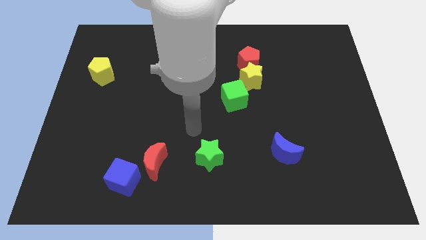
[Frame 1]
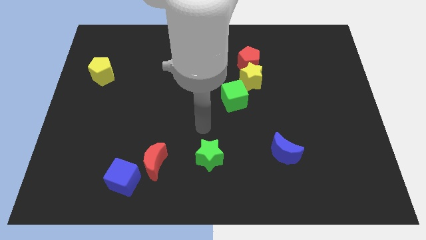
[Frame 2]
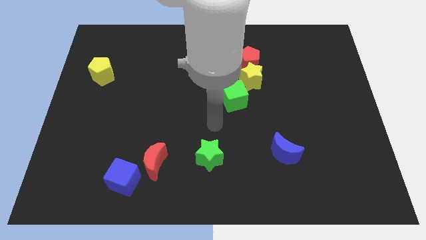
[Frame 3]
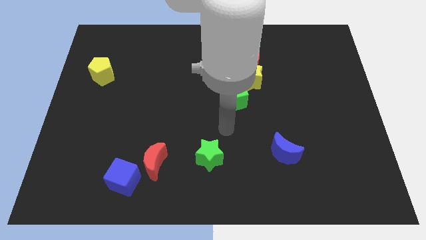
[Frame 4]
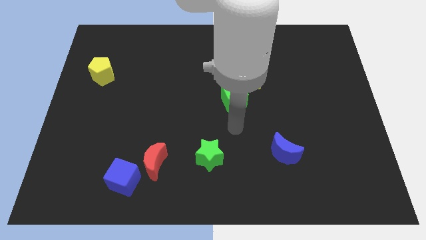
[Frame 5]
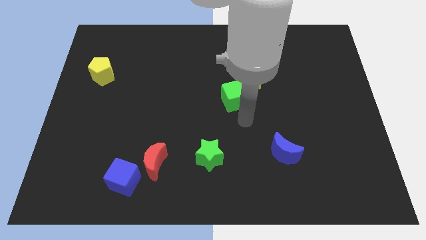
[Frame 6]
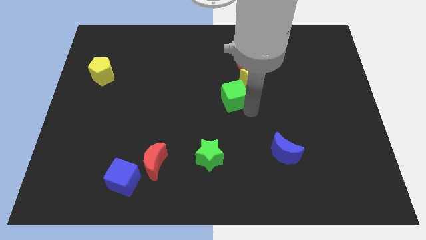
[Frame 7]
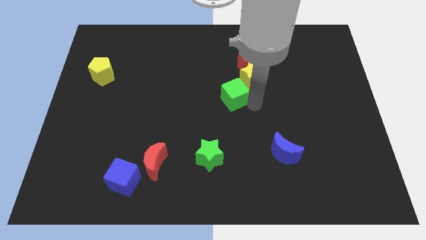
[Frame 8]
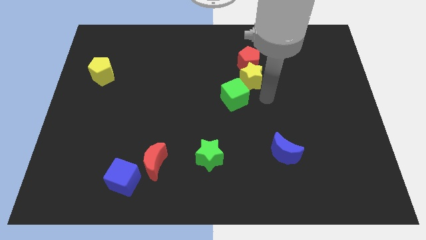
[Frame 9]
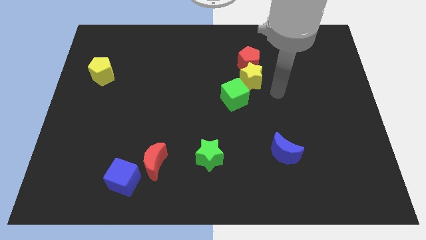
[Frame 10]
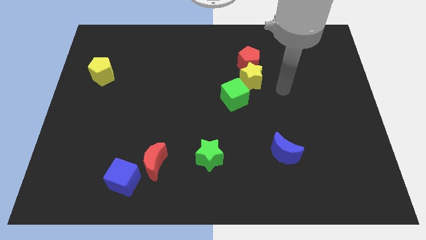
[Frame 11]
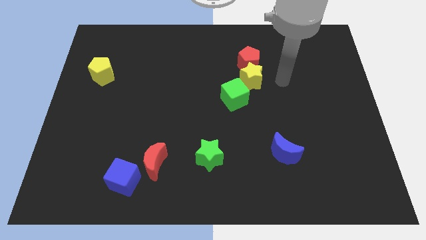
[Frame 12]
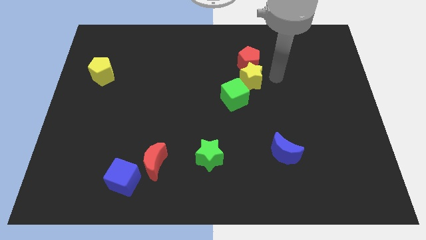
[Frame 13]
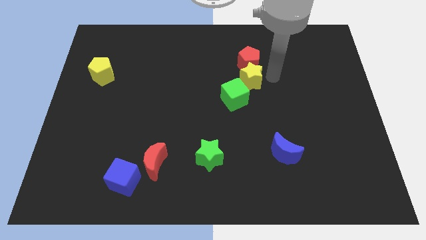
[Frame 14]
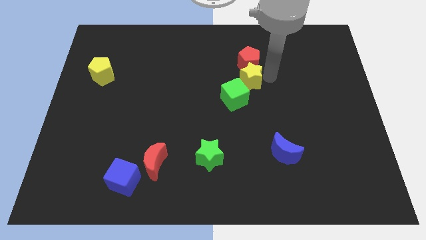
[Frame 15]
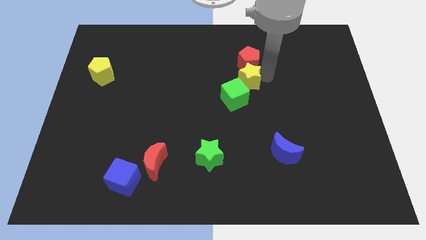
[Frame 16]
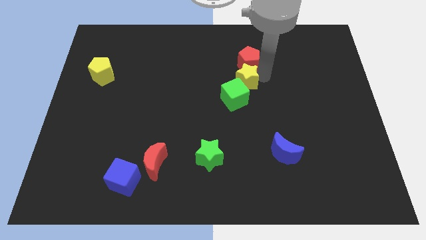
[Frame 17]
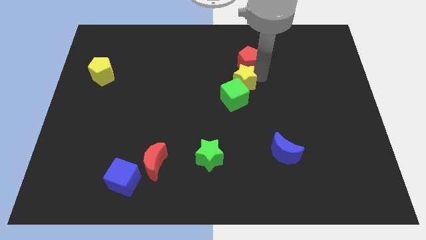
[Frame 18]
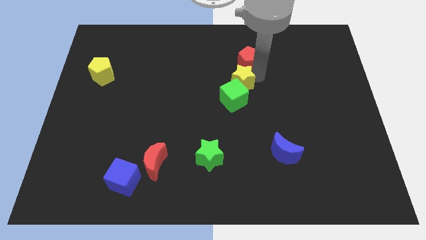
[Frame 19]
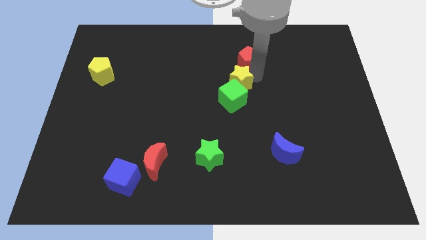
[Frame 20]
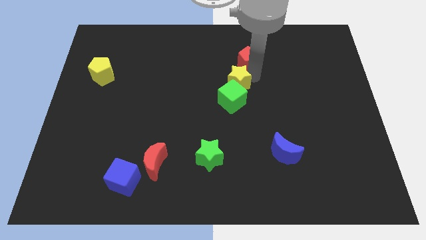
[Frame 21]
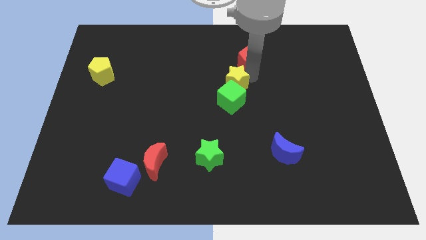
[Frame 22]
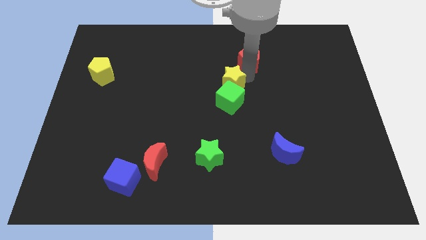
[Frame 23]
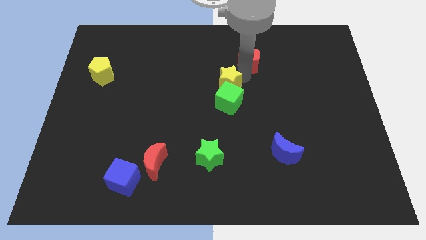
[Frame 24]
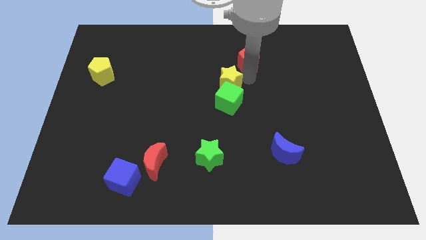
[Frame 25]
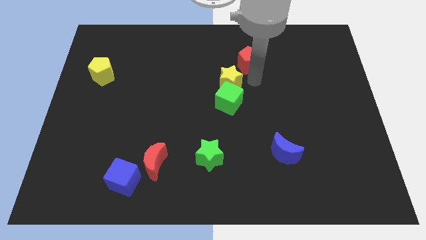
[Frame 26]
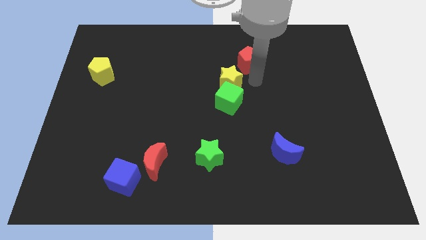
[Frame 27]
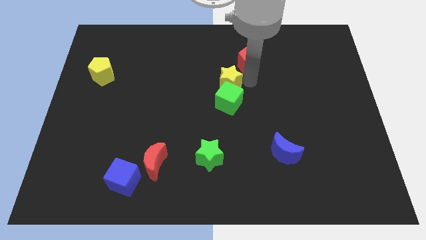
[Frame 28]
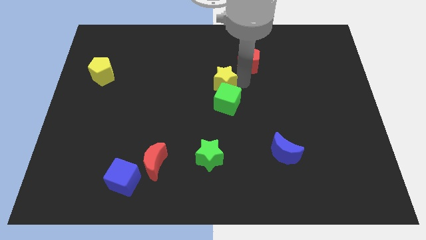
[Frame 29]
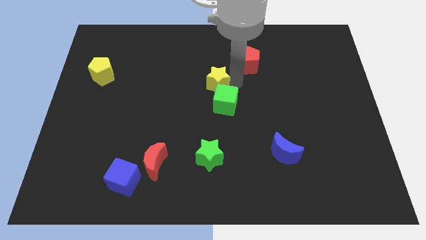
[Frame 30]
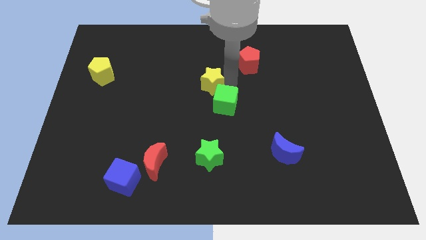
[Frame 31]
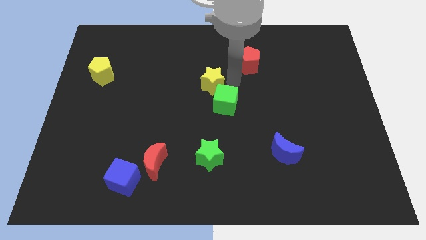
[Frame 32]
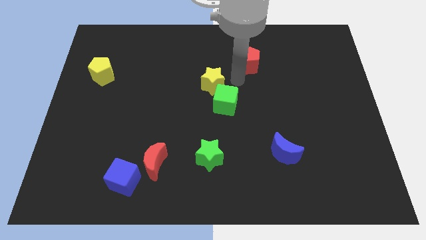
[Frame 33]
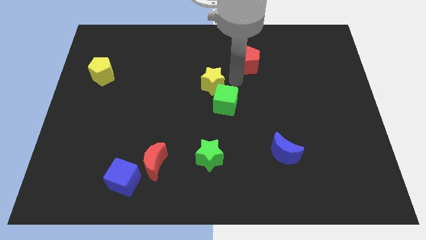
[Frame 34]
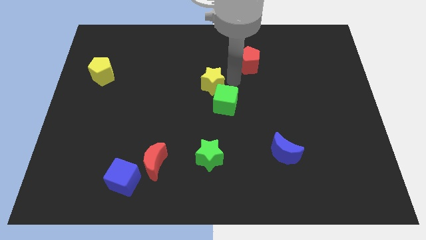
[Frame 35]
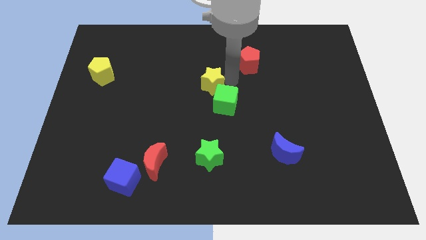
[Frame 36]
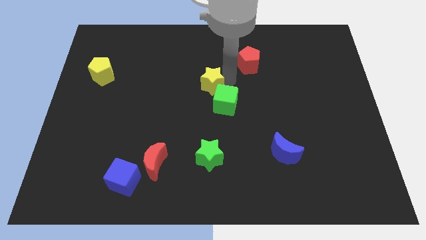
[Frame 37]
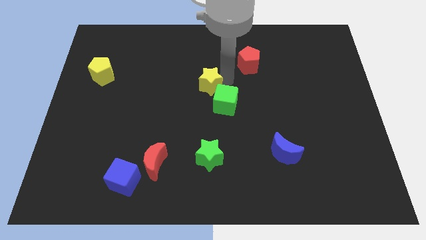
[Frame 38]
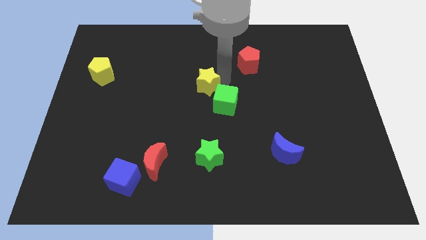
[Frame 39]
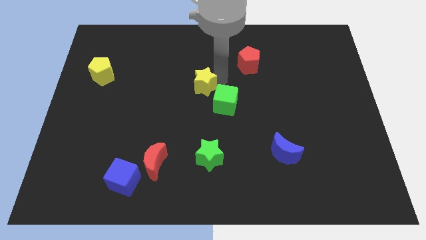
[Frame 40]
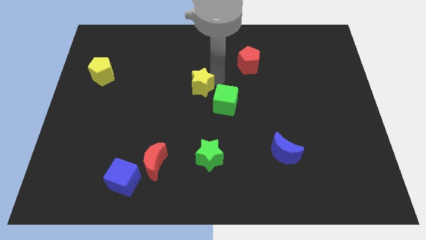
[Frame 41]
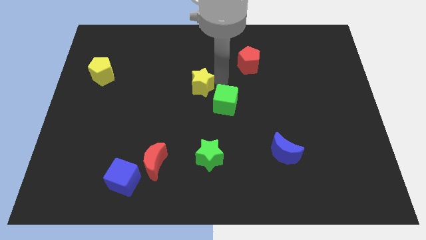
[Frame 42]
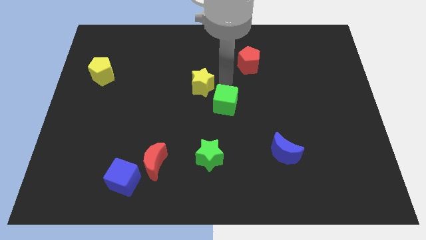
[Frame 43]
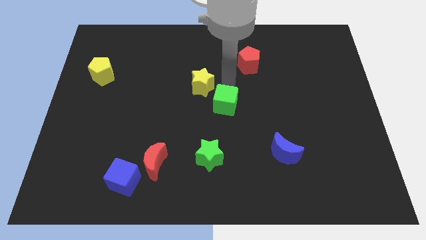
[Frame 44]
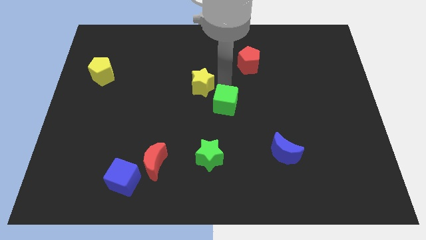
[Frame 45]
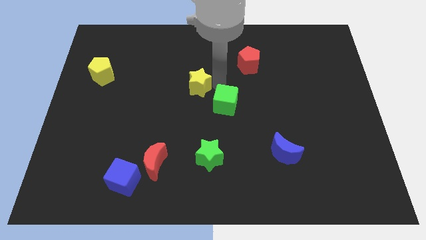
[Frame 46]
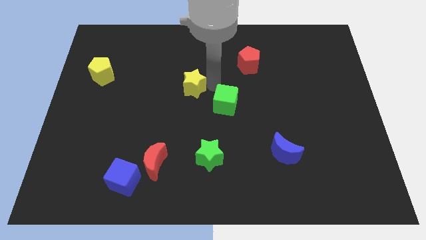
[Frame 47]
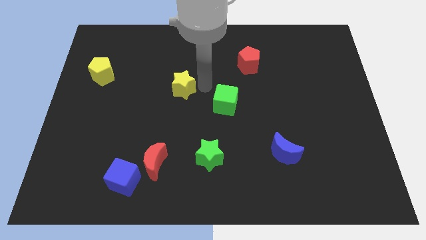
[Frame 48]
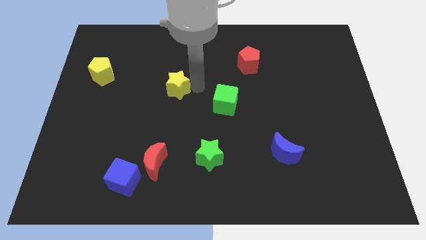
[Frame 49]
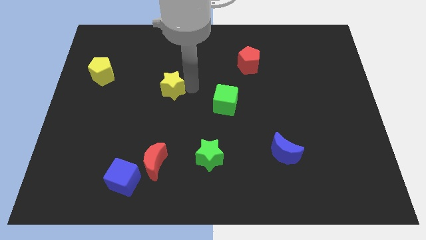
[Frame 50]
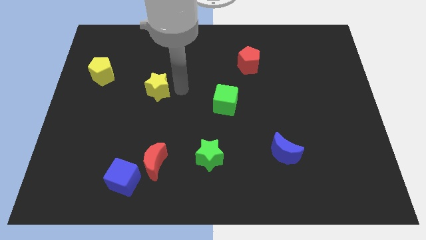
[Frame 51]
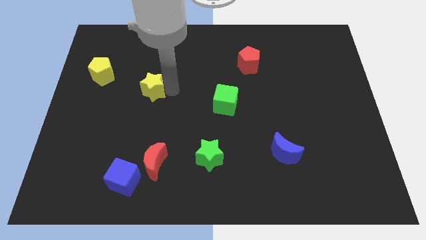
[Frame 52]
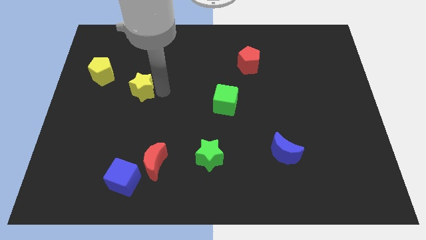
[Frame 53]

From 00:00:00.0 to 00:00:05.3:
push the yellow star diagonally down and to the right of the yellow pentagon

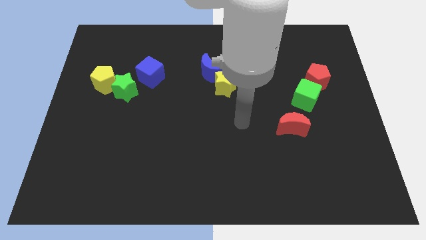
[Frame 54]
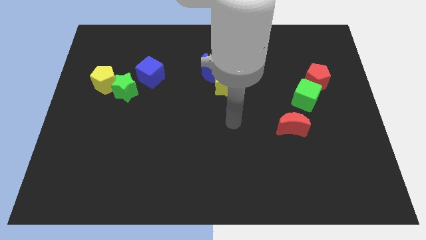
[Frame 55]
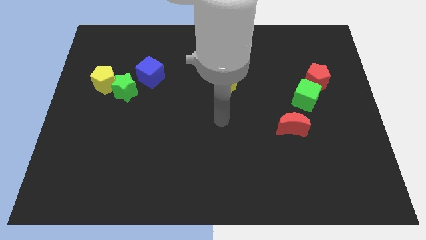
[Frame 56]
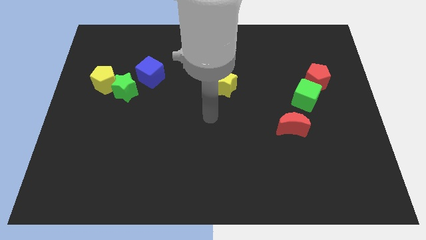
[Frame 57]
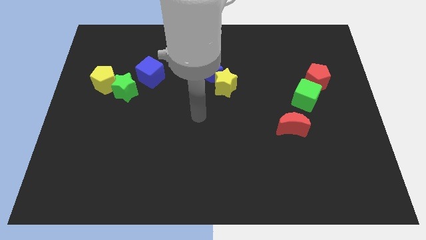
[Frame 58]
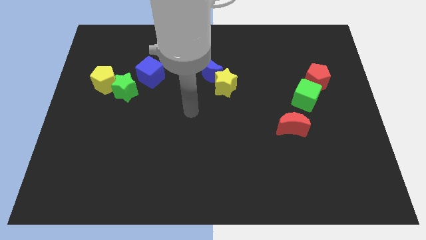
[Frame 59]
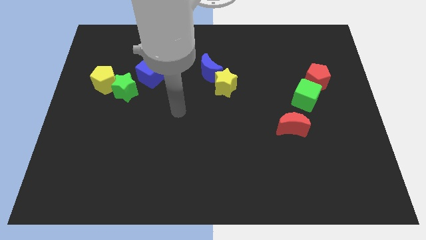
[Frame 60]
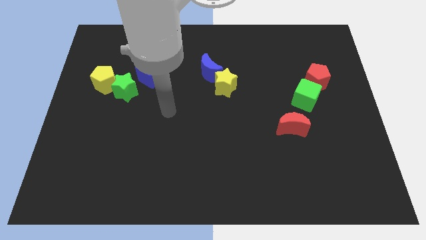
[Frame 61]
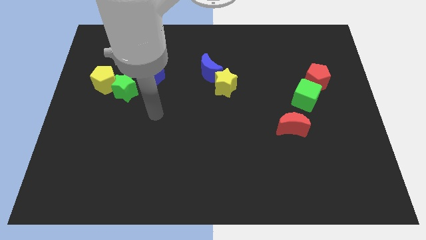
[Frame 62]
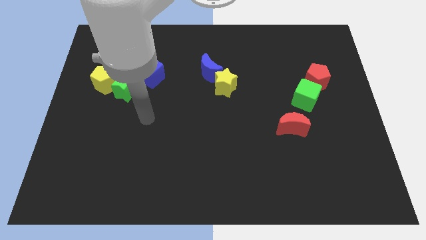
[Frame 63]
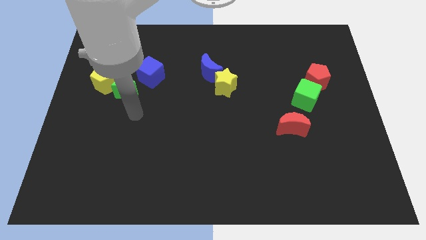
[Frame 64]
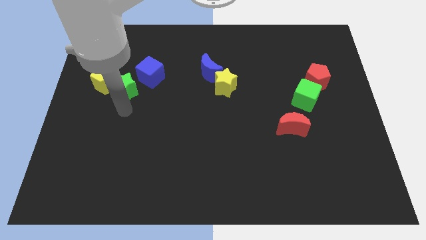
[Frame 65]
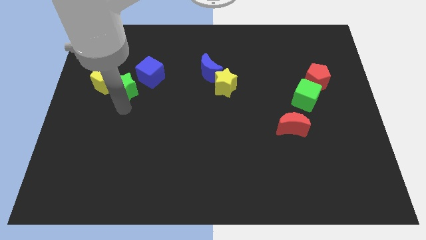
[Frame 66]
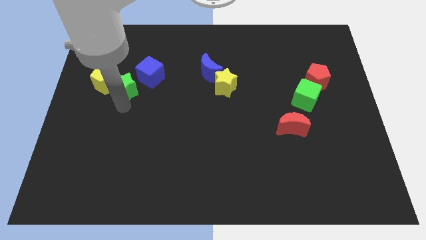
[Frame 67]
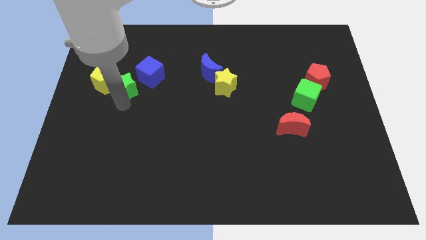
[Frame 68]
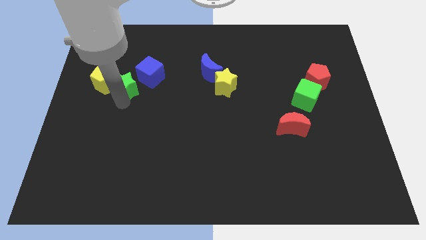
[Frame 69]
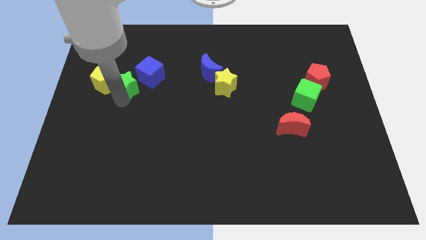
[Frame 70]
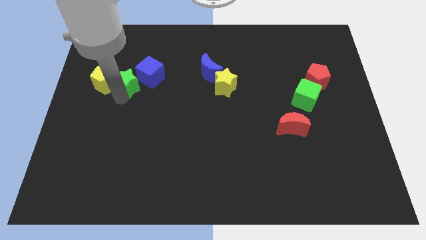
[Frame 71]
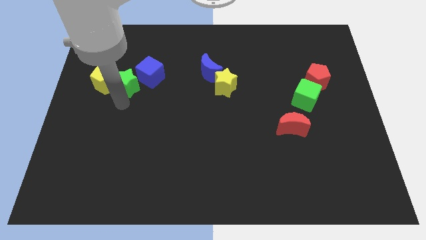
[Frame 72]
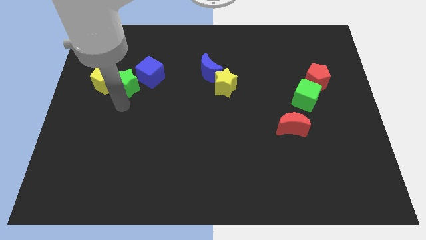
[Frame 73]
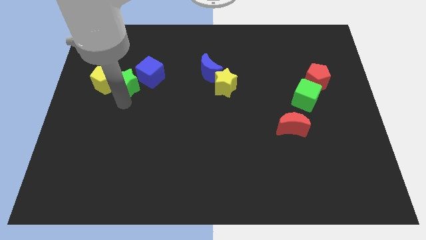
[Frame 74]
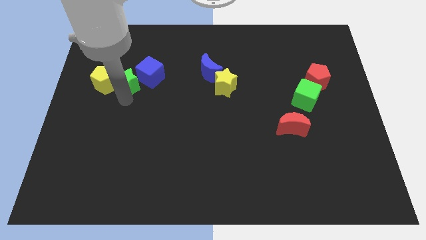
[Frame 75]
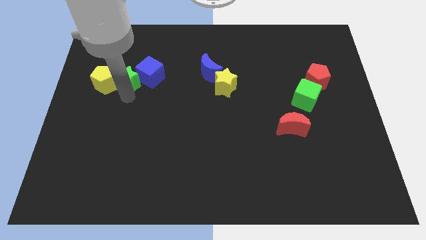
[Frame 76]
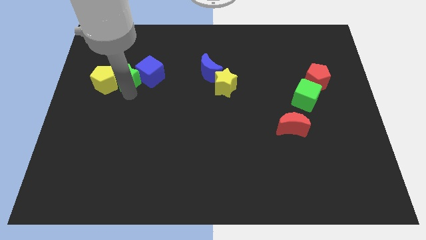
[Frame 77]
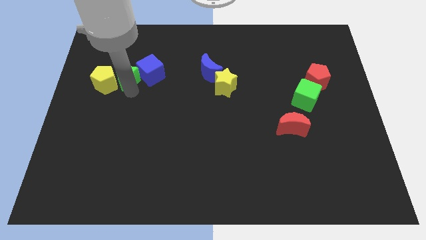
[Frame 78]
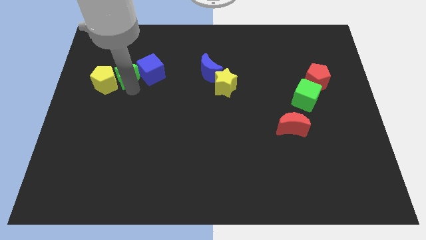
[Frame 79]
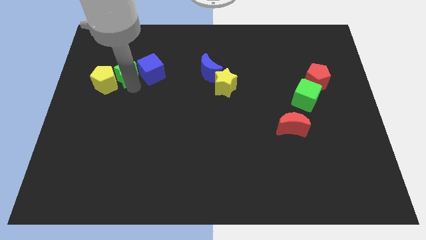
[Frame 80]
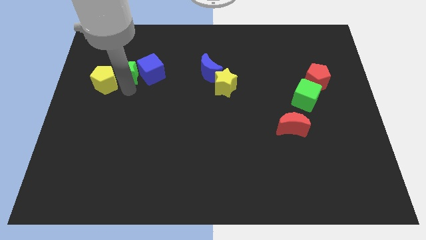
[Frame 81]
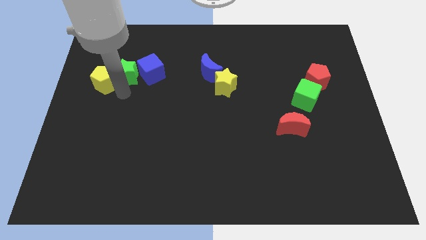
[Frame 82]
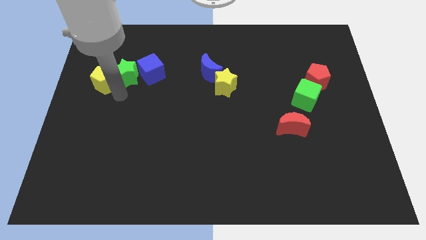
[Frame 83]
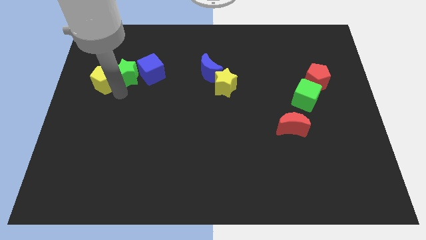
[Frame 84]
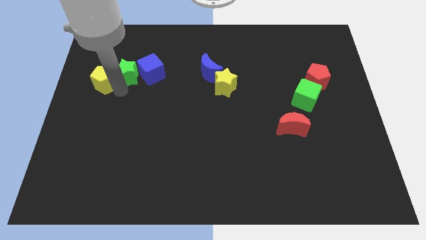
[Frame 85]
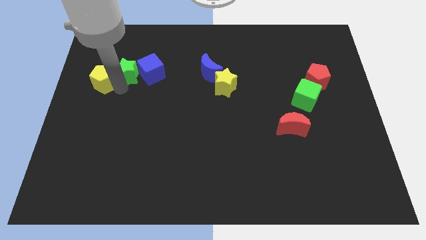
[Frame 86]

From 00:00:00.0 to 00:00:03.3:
move the green star to the top left of the blue cube
